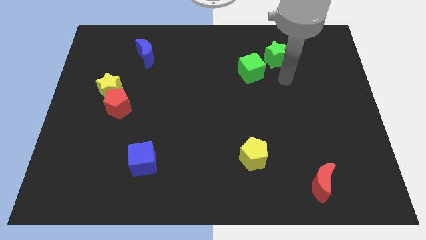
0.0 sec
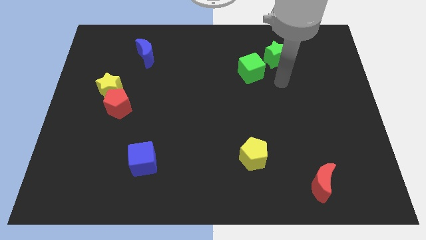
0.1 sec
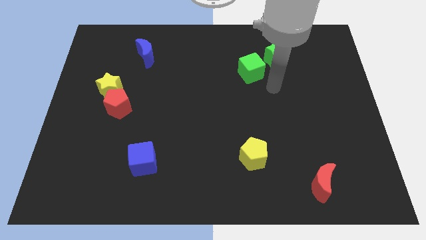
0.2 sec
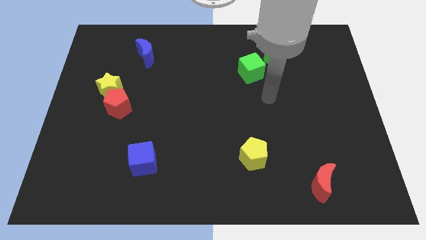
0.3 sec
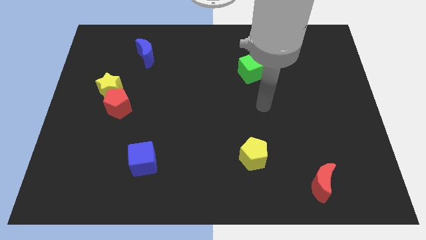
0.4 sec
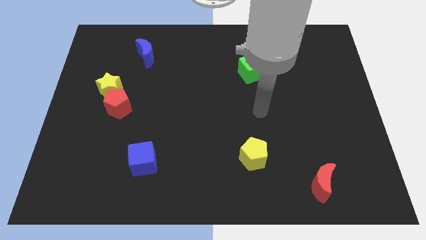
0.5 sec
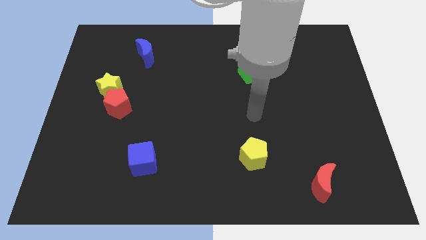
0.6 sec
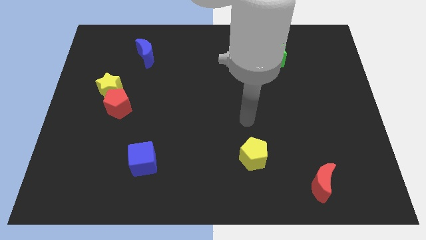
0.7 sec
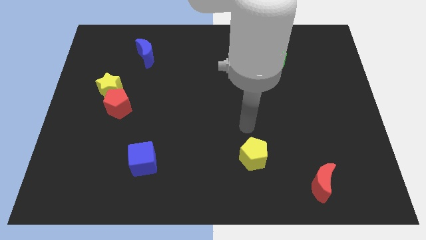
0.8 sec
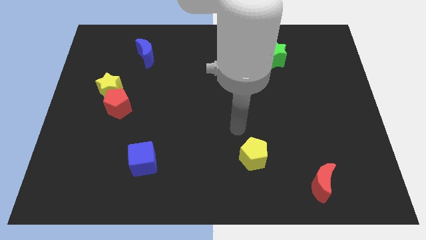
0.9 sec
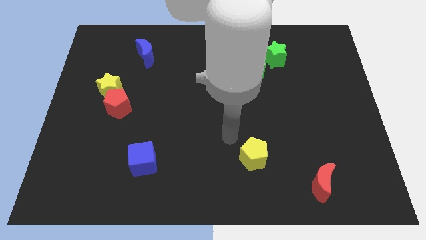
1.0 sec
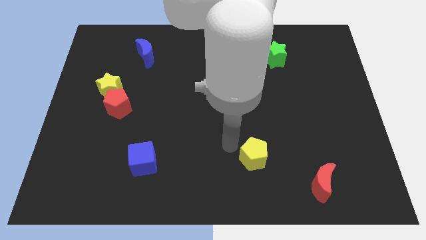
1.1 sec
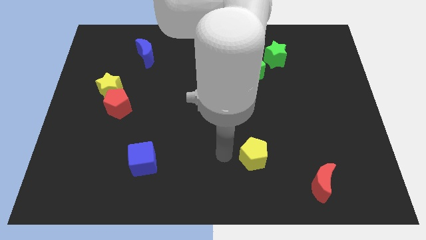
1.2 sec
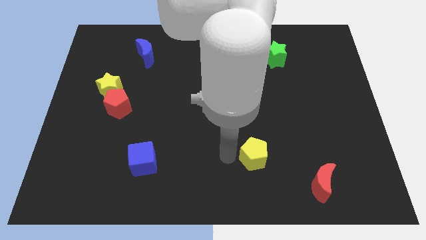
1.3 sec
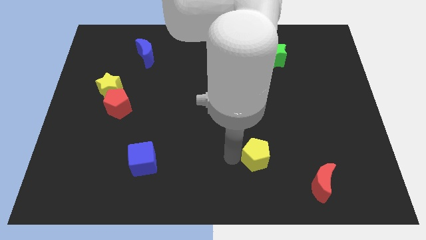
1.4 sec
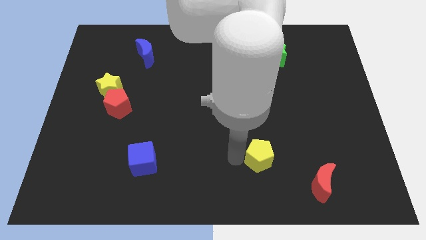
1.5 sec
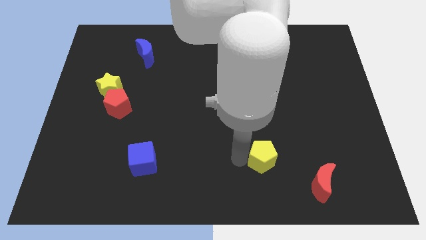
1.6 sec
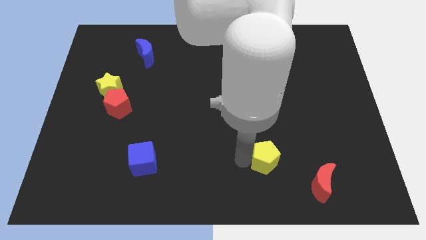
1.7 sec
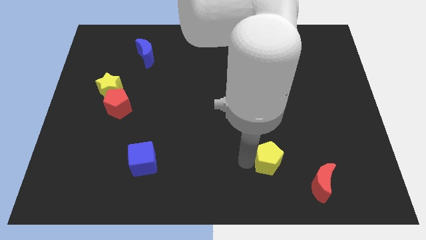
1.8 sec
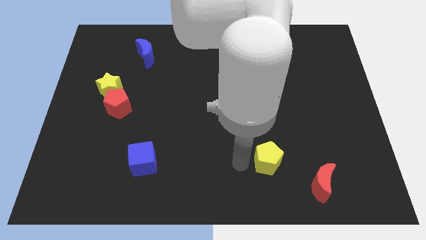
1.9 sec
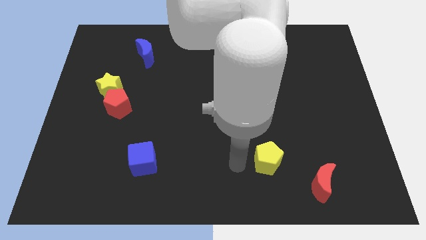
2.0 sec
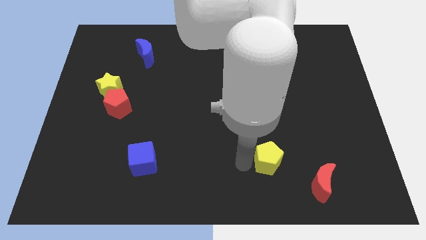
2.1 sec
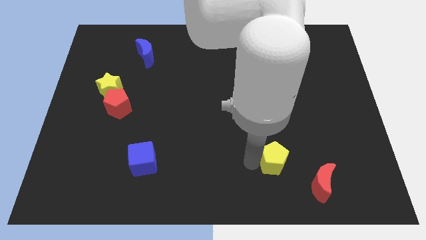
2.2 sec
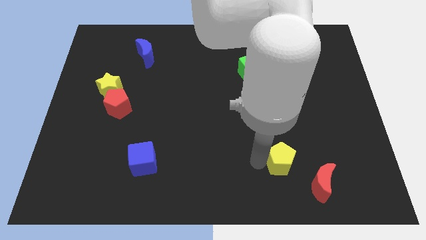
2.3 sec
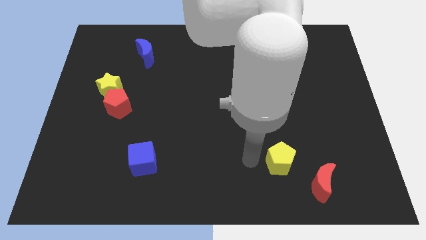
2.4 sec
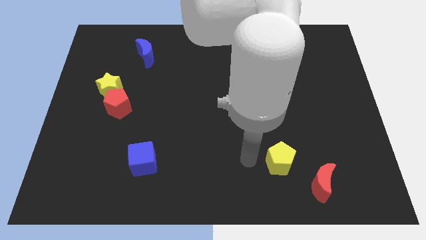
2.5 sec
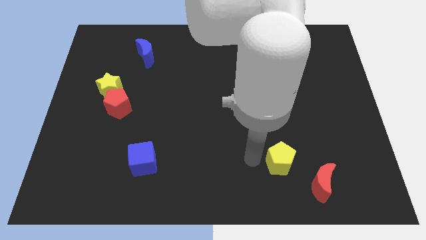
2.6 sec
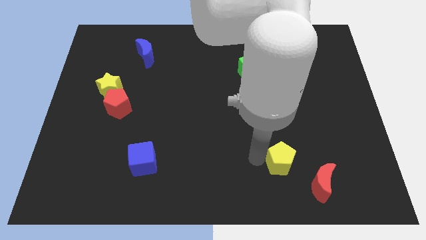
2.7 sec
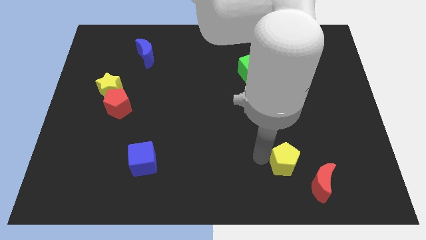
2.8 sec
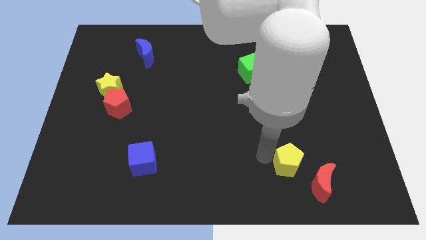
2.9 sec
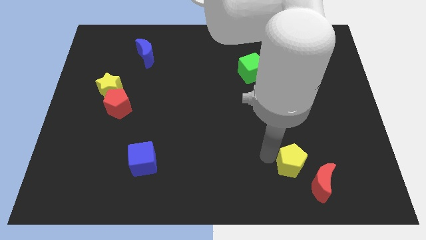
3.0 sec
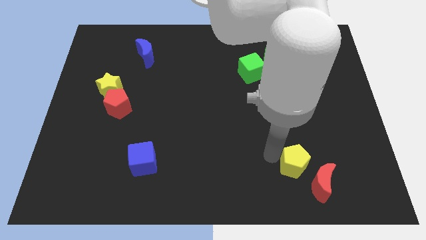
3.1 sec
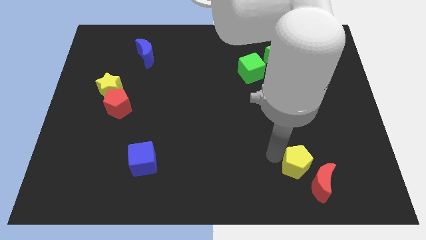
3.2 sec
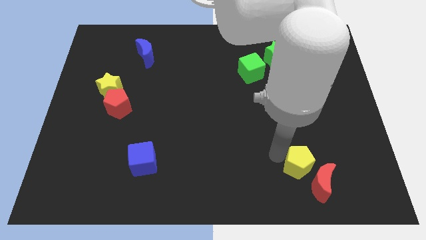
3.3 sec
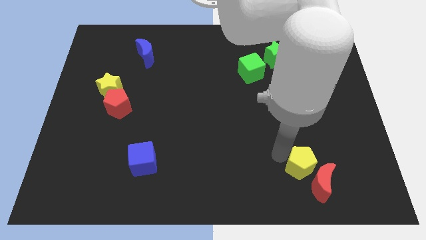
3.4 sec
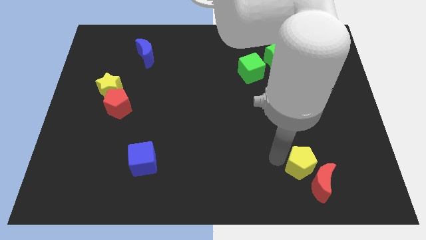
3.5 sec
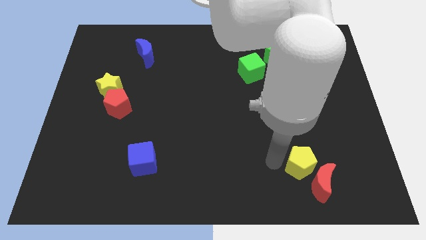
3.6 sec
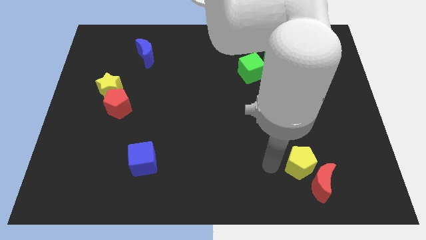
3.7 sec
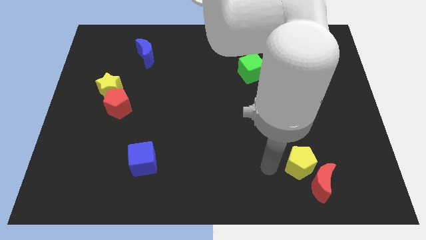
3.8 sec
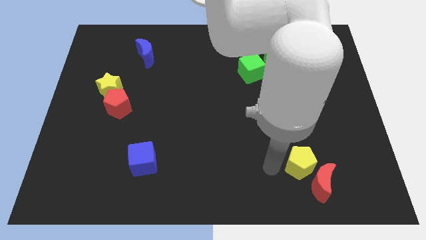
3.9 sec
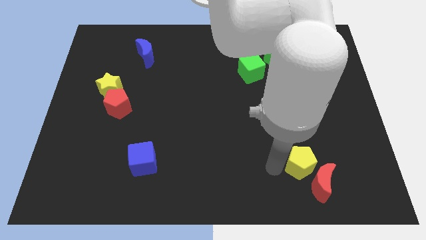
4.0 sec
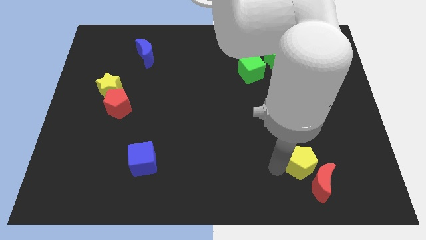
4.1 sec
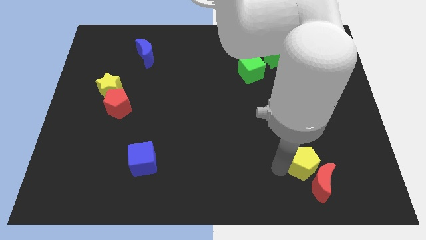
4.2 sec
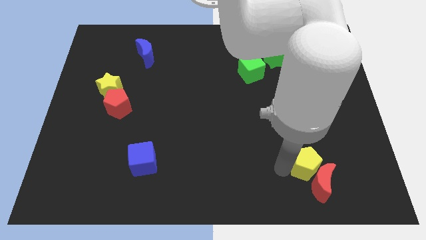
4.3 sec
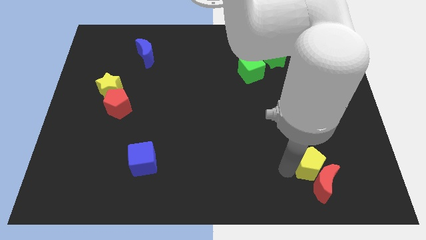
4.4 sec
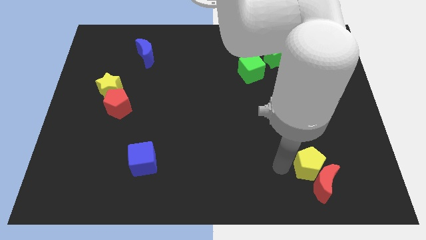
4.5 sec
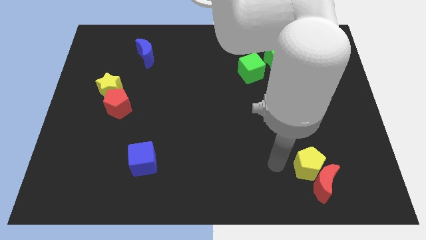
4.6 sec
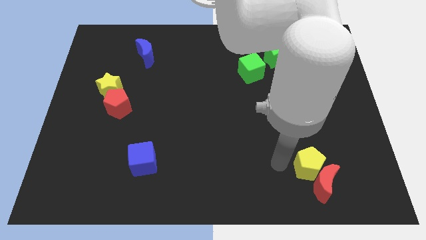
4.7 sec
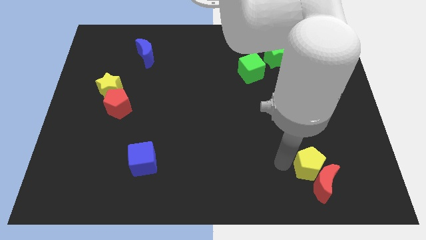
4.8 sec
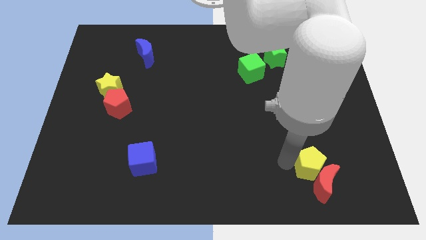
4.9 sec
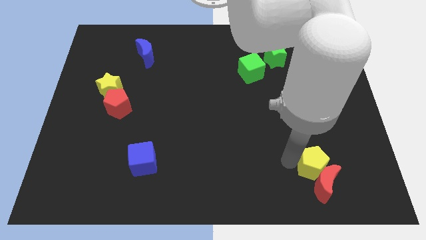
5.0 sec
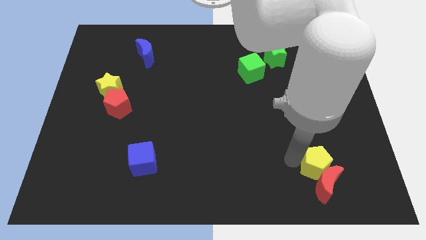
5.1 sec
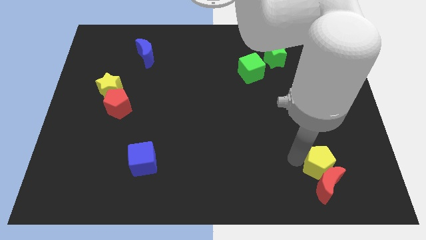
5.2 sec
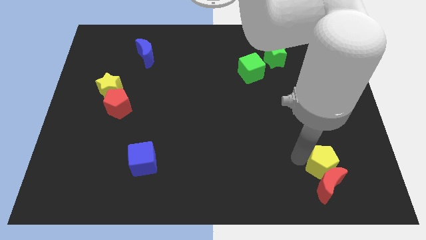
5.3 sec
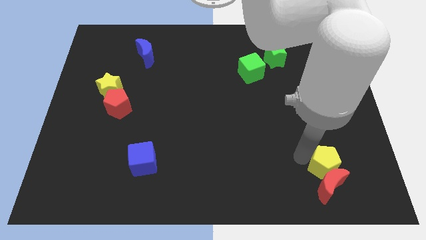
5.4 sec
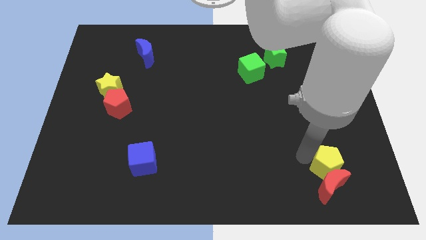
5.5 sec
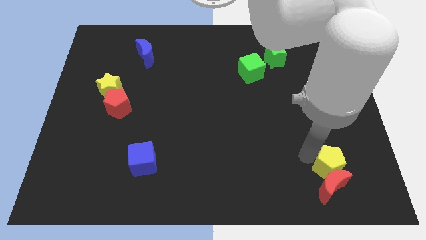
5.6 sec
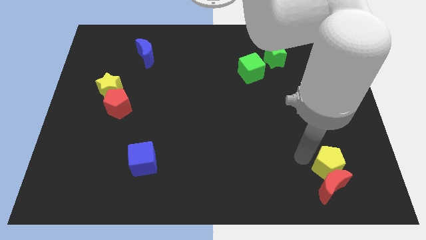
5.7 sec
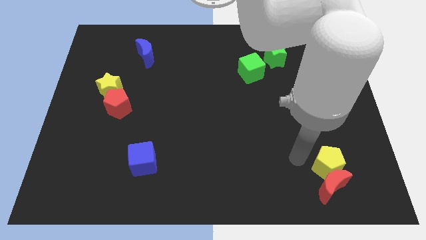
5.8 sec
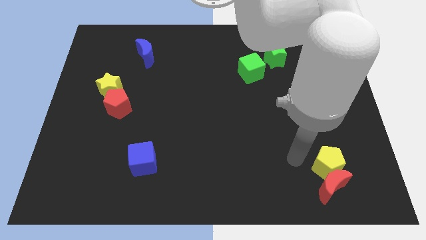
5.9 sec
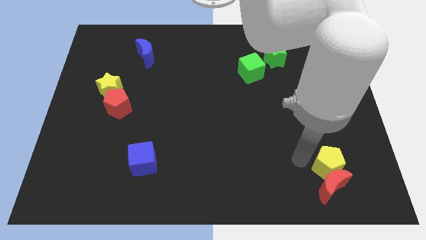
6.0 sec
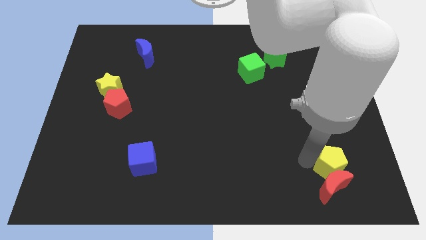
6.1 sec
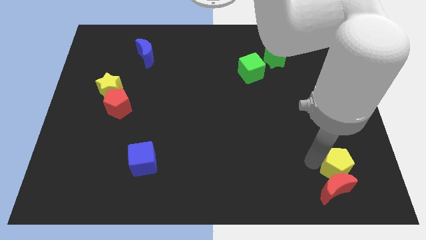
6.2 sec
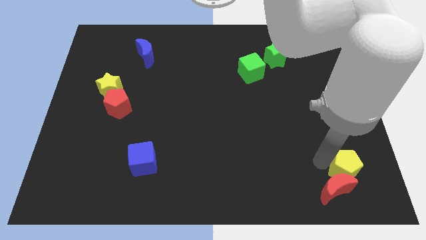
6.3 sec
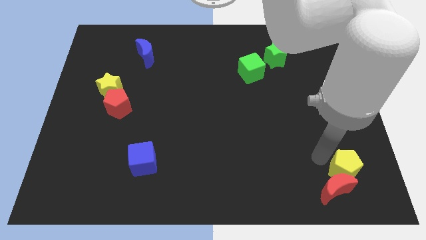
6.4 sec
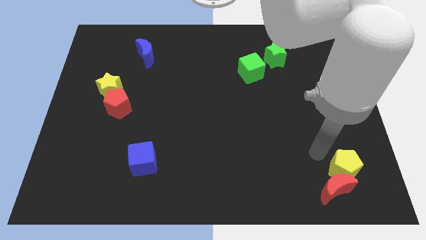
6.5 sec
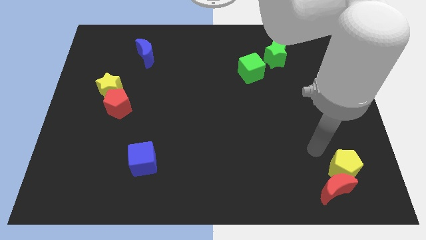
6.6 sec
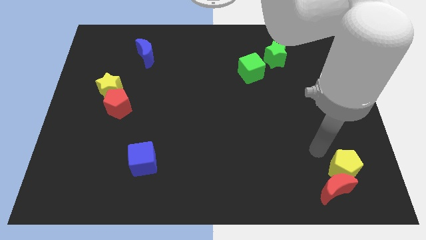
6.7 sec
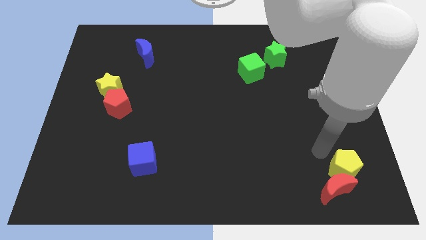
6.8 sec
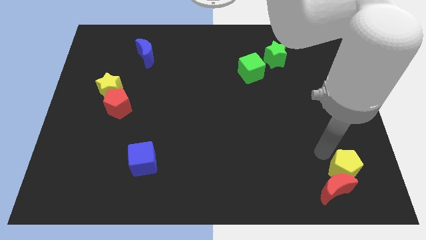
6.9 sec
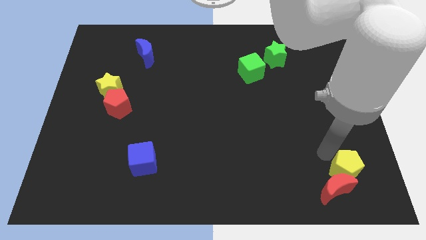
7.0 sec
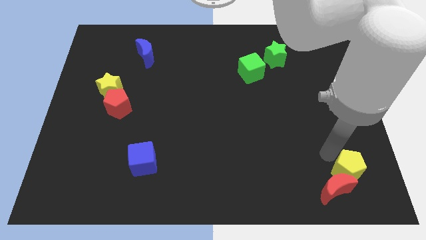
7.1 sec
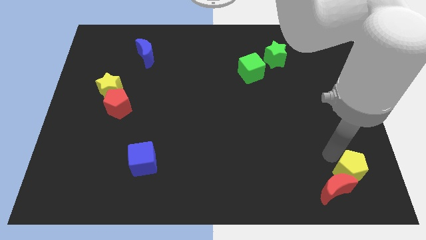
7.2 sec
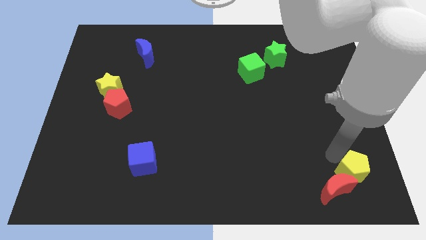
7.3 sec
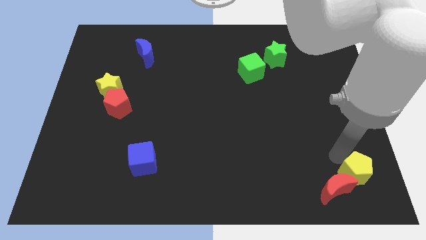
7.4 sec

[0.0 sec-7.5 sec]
put the yellow pentagon to the lower right corner
